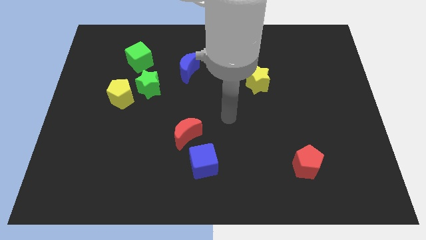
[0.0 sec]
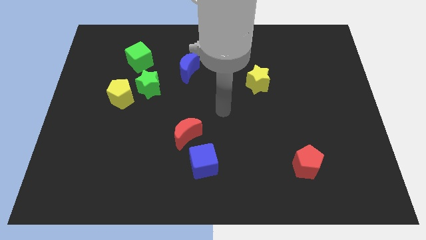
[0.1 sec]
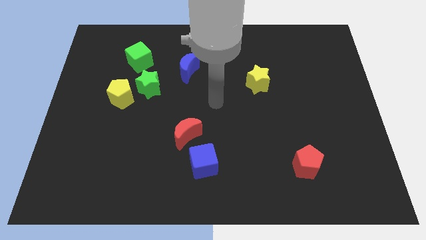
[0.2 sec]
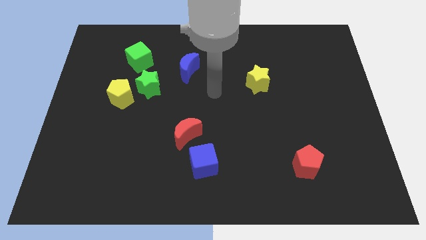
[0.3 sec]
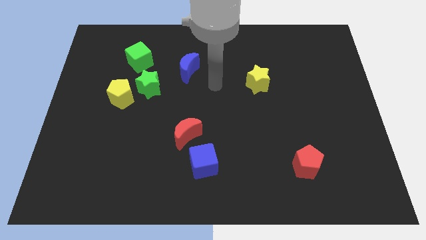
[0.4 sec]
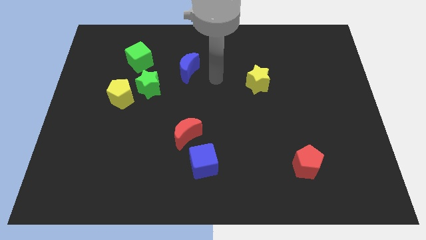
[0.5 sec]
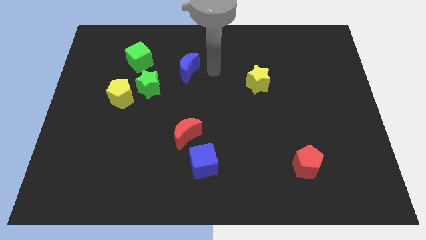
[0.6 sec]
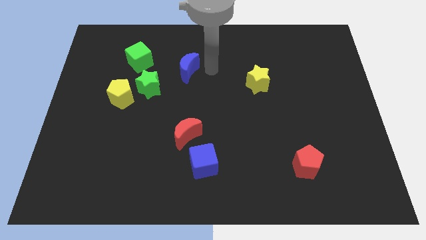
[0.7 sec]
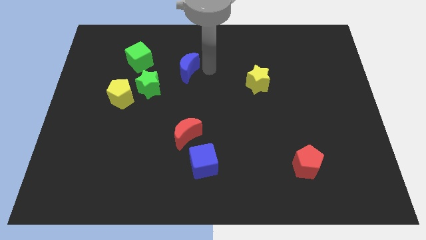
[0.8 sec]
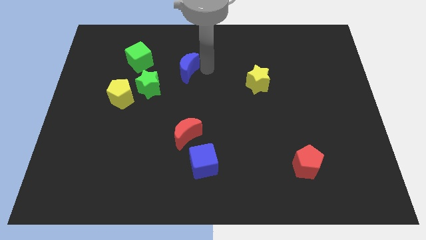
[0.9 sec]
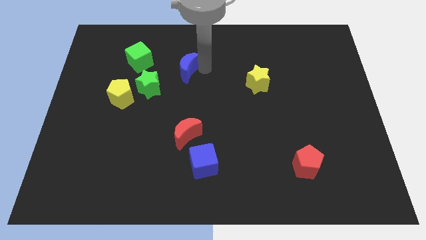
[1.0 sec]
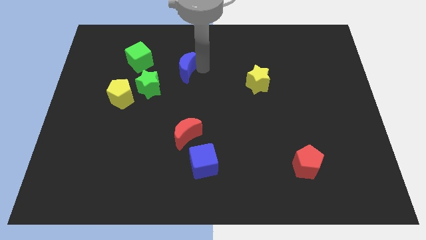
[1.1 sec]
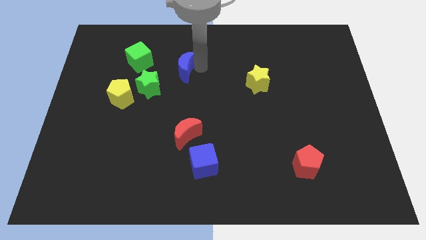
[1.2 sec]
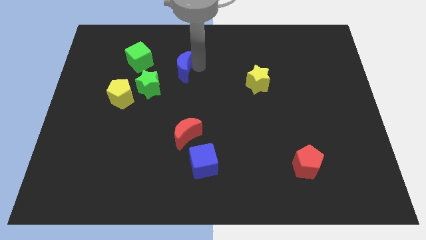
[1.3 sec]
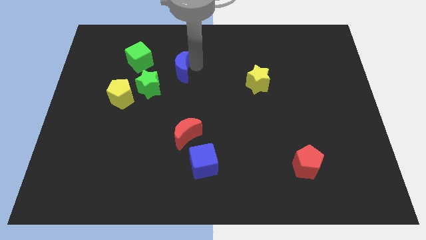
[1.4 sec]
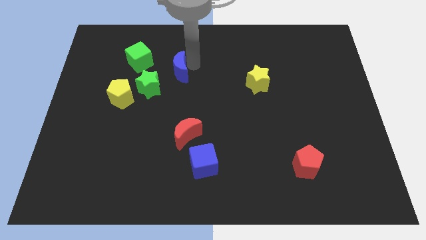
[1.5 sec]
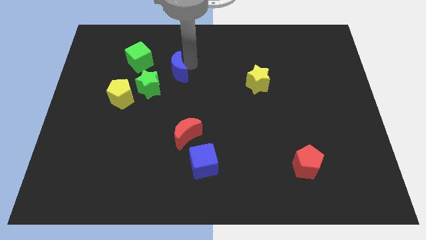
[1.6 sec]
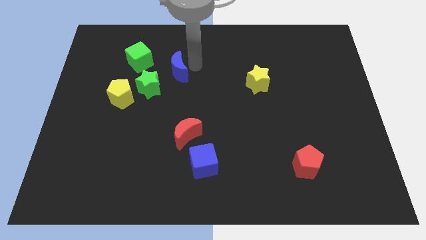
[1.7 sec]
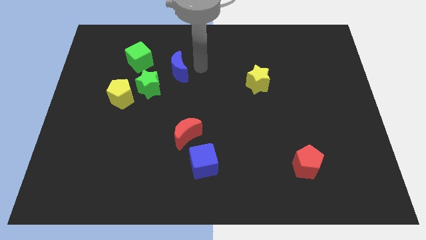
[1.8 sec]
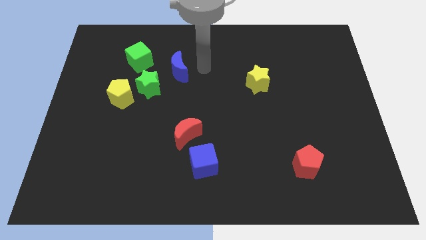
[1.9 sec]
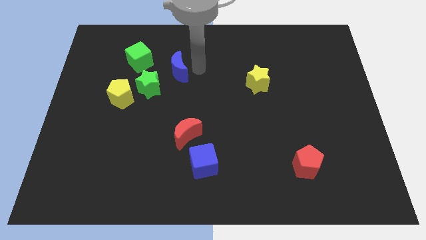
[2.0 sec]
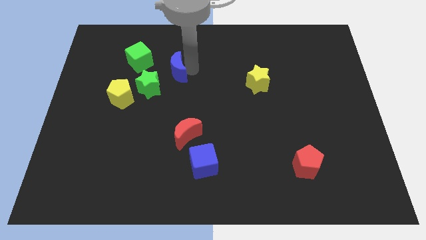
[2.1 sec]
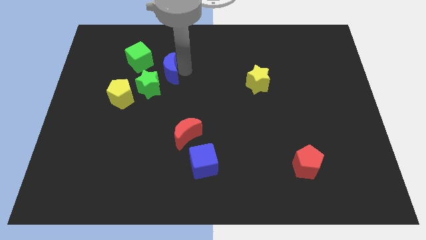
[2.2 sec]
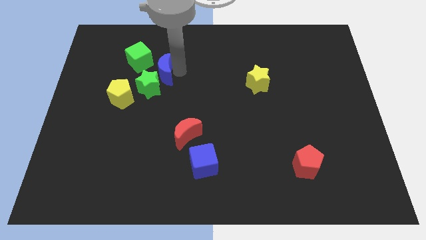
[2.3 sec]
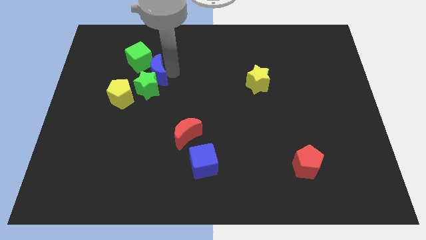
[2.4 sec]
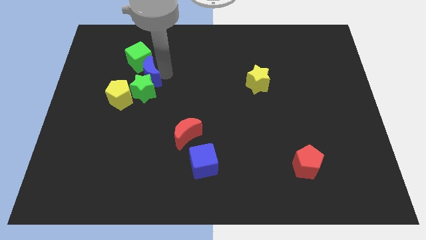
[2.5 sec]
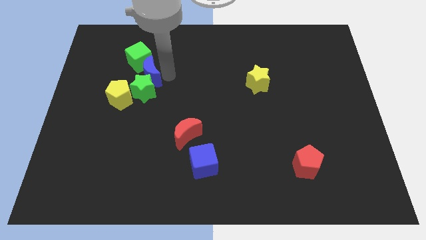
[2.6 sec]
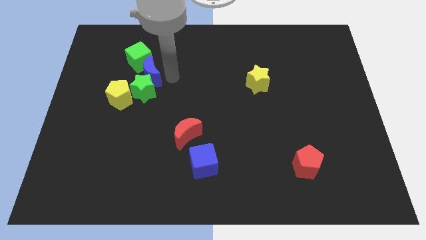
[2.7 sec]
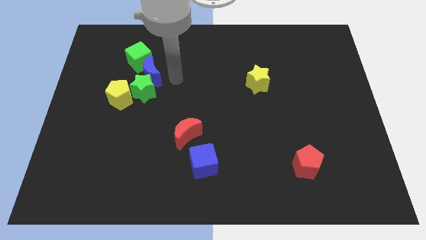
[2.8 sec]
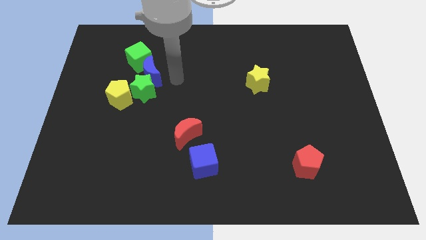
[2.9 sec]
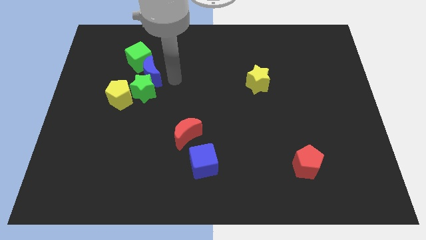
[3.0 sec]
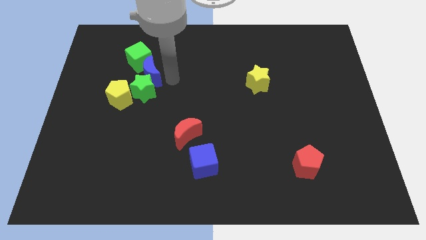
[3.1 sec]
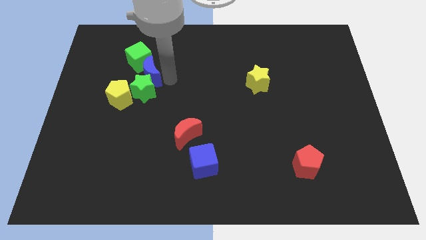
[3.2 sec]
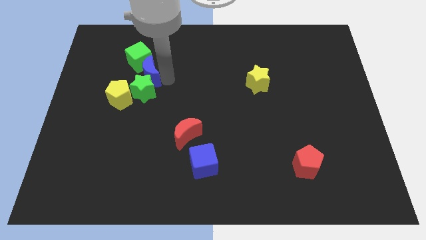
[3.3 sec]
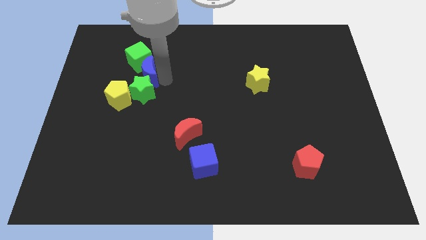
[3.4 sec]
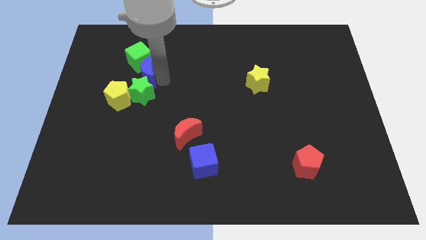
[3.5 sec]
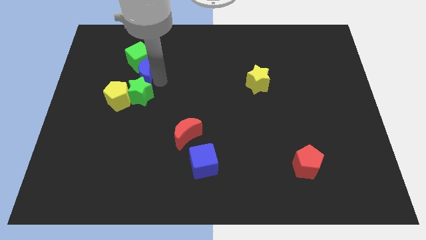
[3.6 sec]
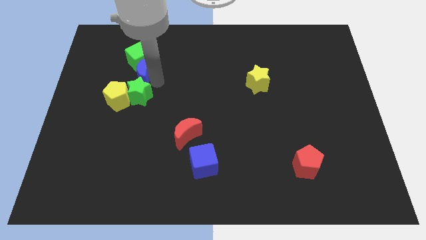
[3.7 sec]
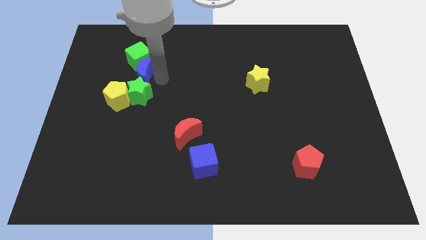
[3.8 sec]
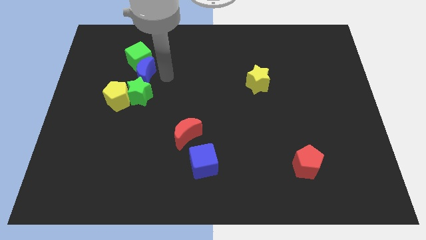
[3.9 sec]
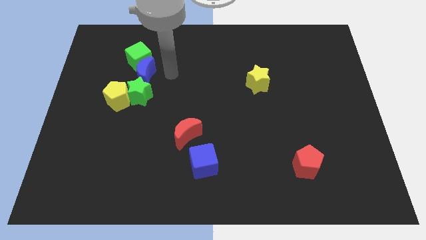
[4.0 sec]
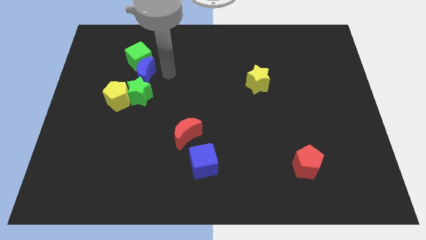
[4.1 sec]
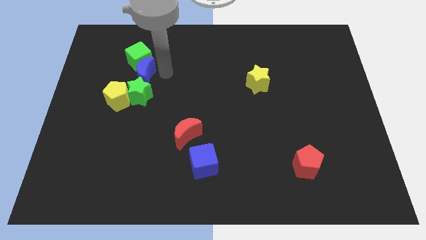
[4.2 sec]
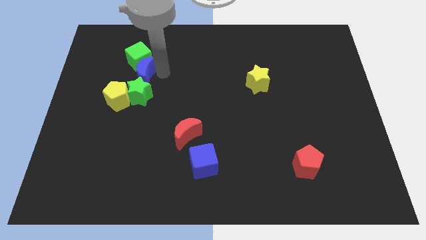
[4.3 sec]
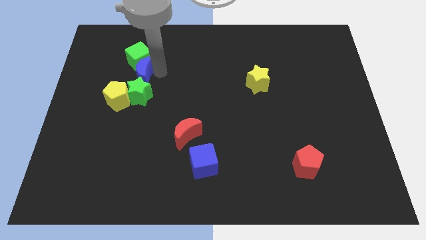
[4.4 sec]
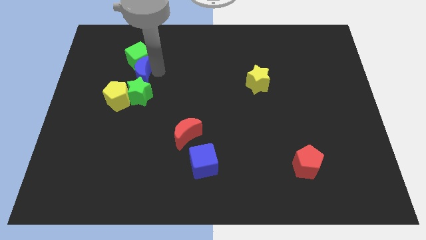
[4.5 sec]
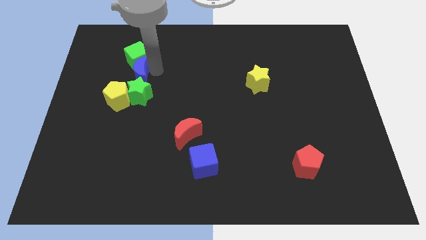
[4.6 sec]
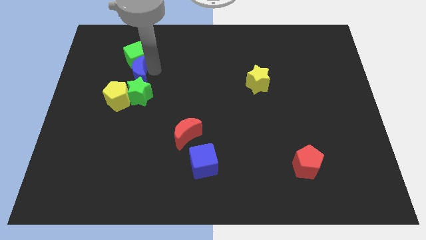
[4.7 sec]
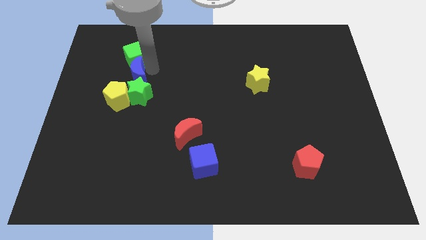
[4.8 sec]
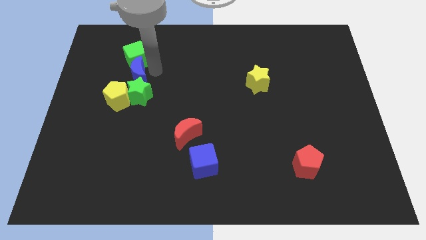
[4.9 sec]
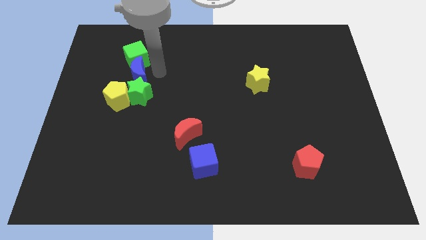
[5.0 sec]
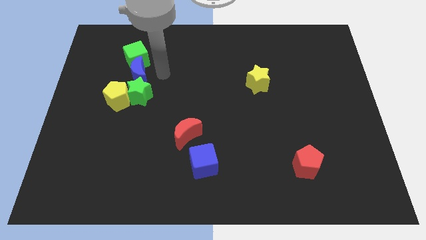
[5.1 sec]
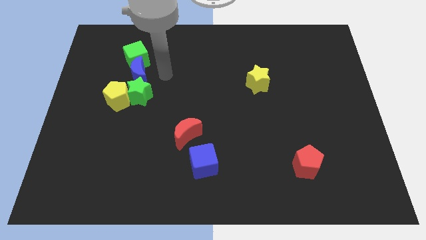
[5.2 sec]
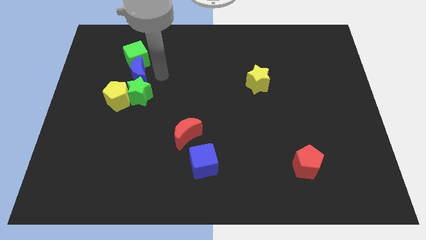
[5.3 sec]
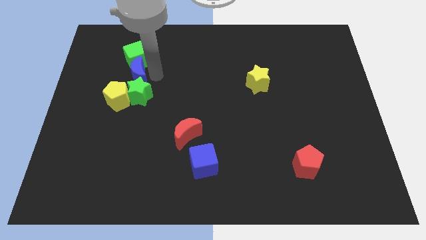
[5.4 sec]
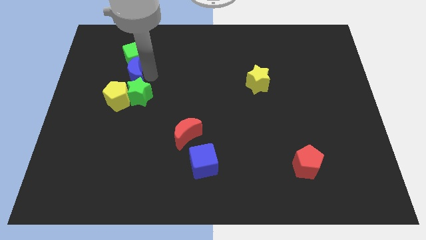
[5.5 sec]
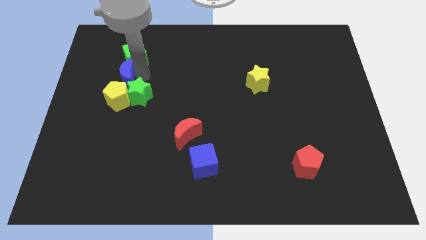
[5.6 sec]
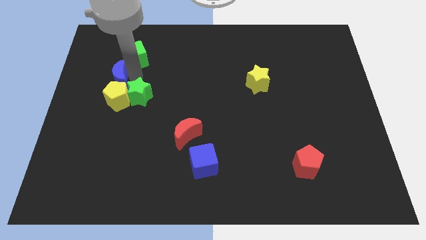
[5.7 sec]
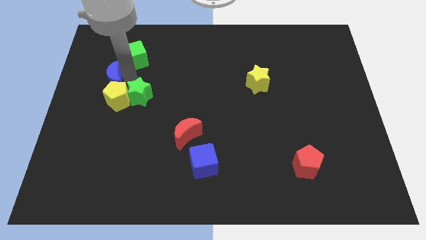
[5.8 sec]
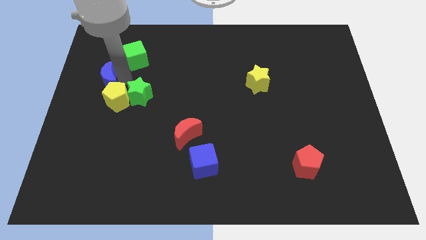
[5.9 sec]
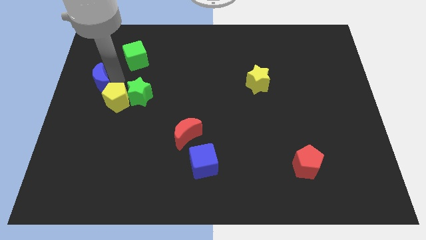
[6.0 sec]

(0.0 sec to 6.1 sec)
put the blue moon to the left side

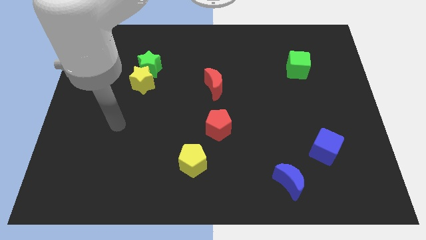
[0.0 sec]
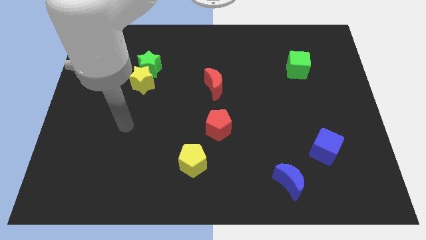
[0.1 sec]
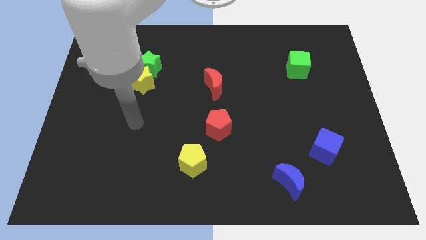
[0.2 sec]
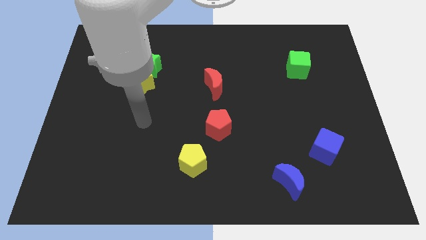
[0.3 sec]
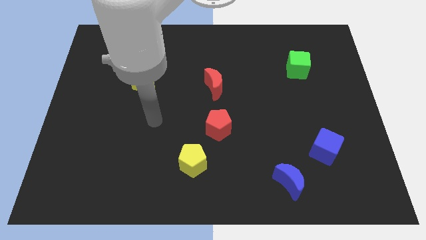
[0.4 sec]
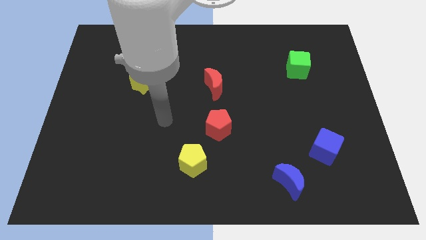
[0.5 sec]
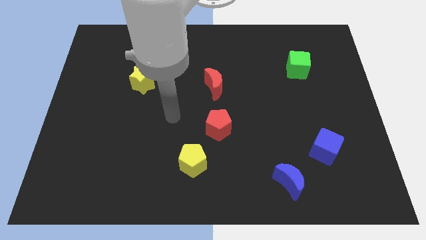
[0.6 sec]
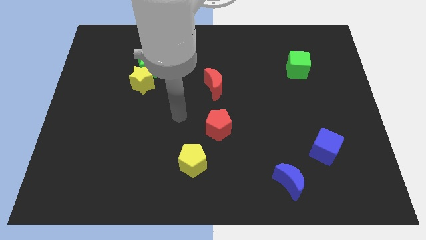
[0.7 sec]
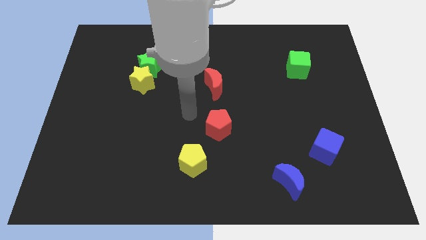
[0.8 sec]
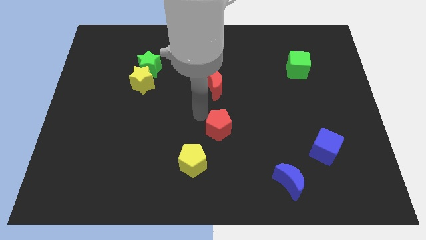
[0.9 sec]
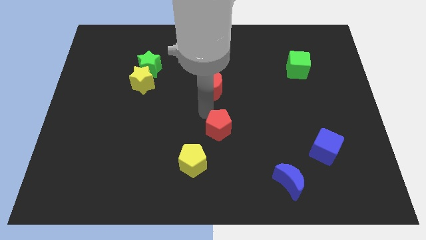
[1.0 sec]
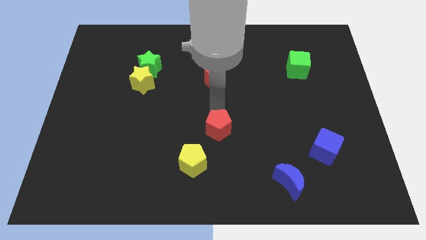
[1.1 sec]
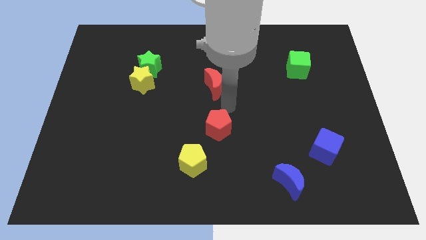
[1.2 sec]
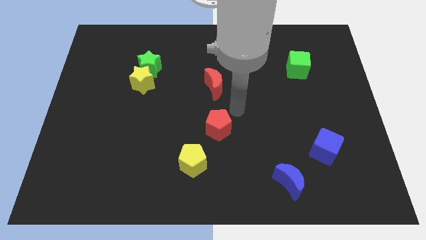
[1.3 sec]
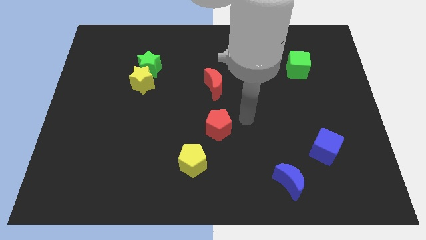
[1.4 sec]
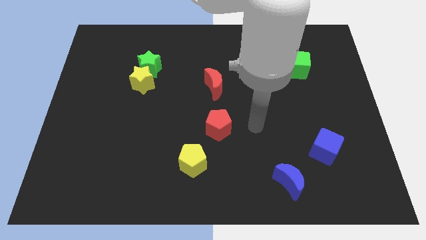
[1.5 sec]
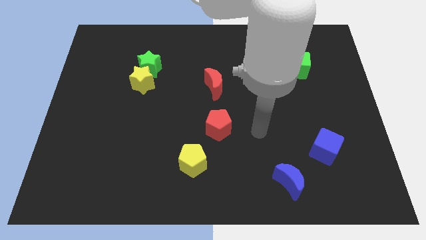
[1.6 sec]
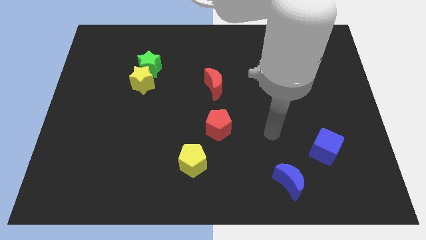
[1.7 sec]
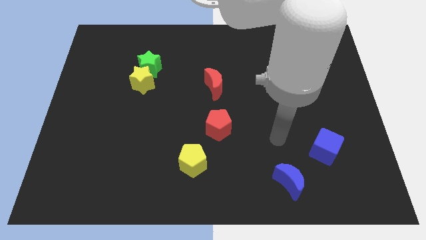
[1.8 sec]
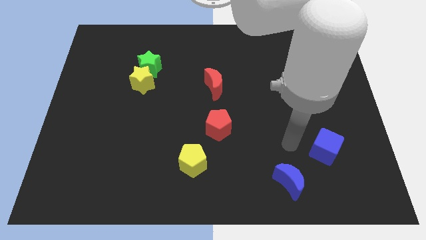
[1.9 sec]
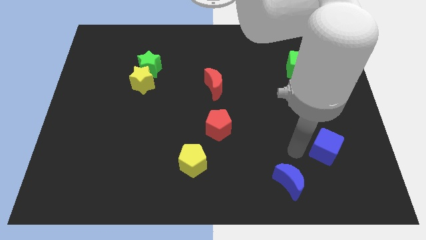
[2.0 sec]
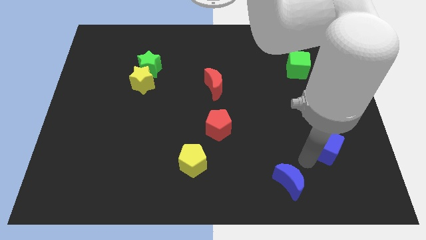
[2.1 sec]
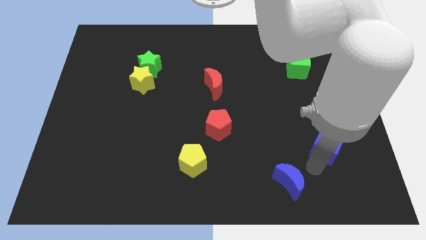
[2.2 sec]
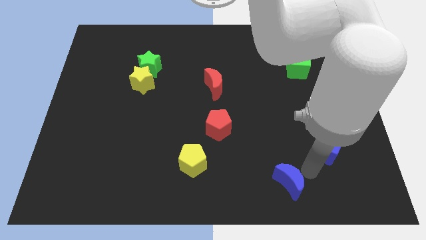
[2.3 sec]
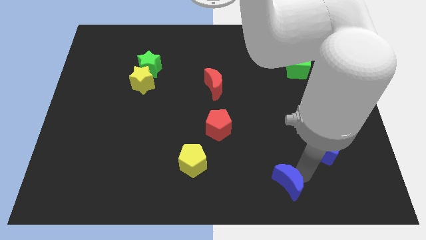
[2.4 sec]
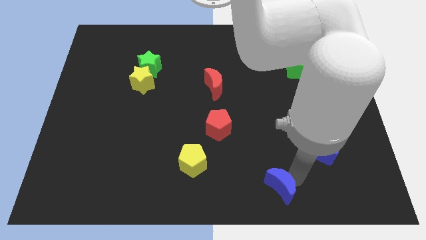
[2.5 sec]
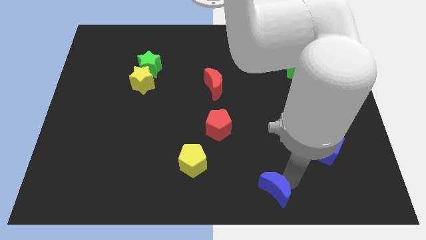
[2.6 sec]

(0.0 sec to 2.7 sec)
slide the blue moon to the bottom
